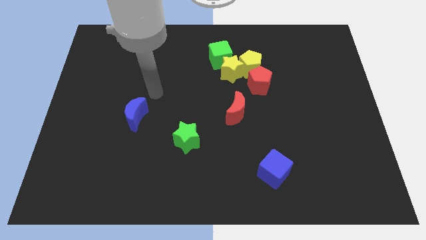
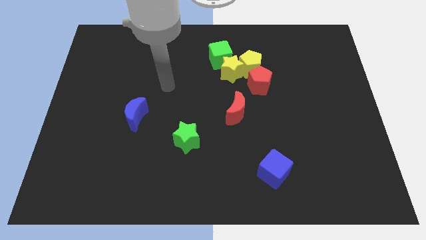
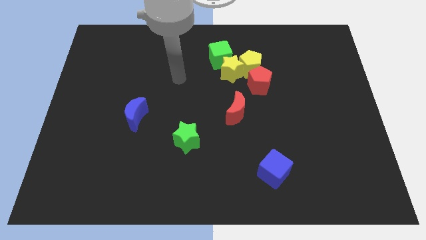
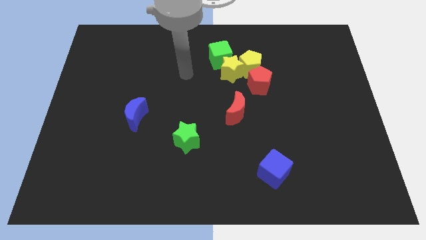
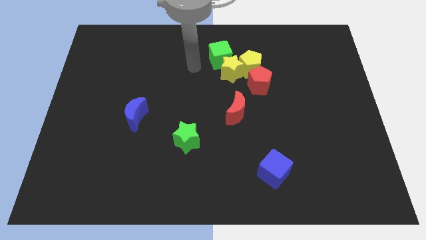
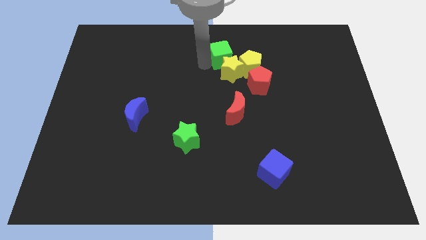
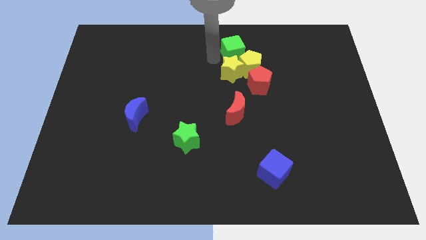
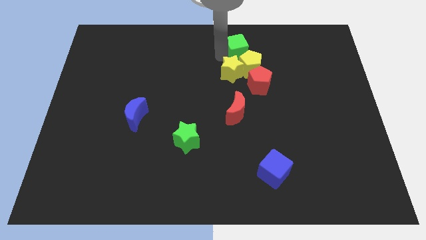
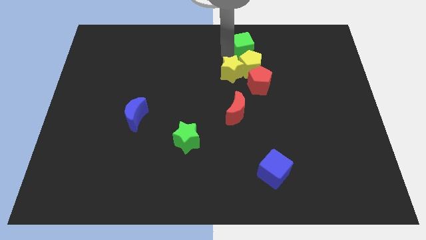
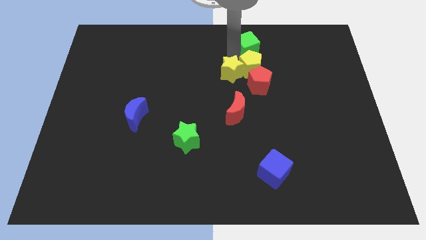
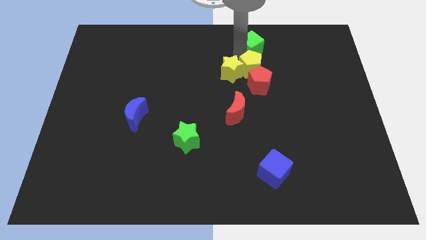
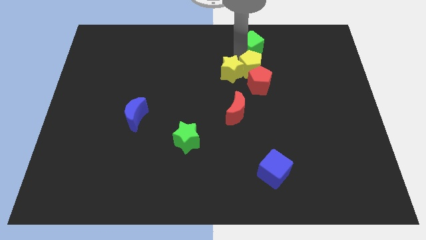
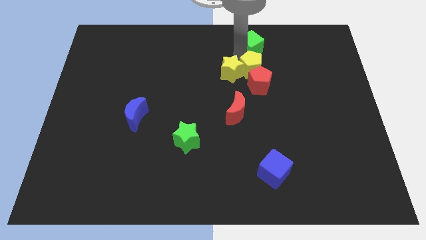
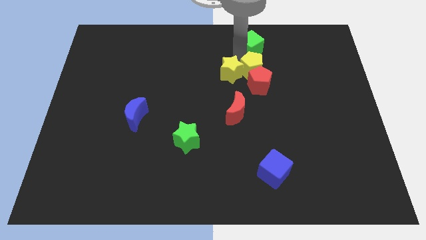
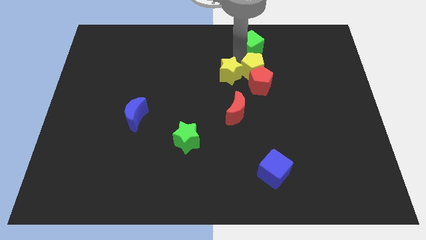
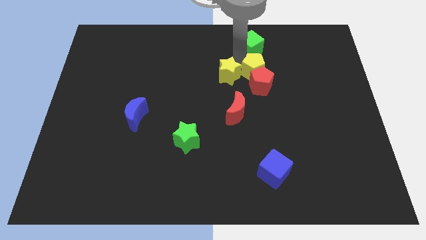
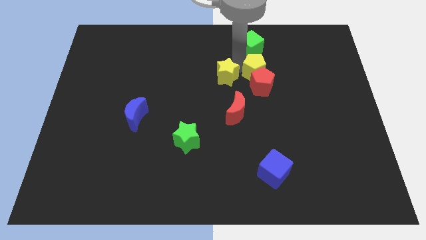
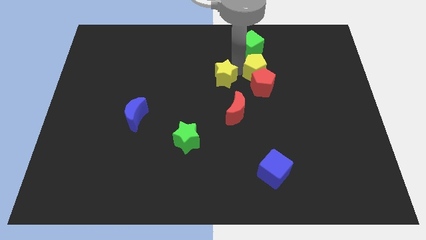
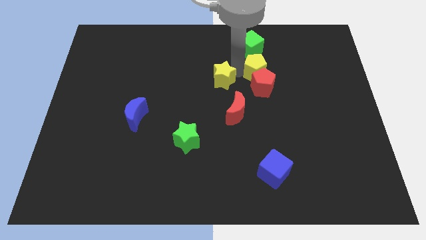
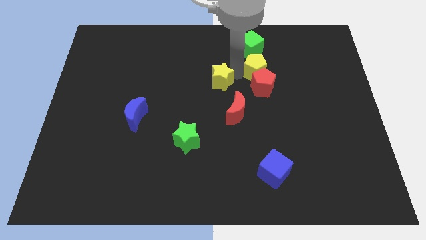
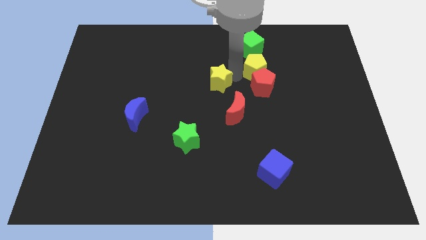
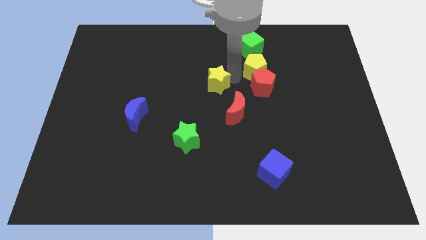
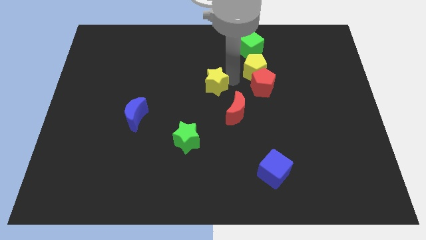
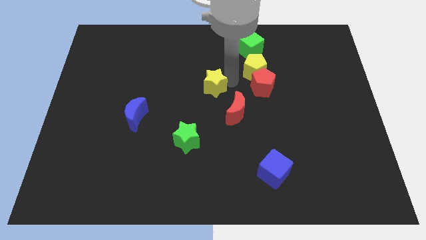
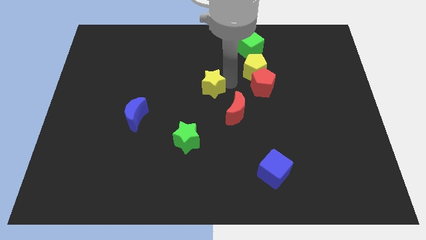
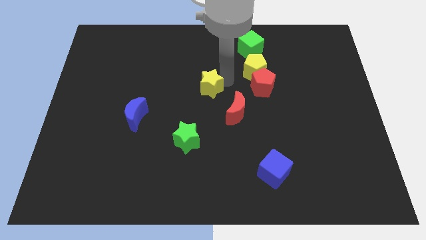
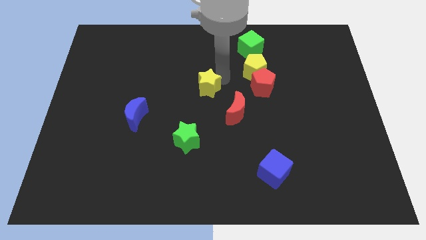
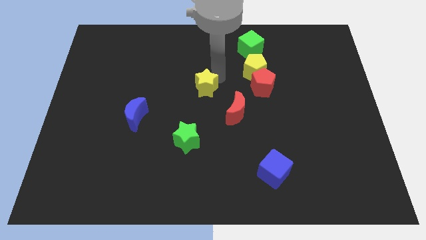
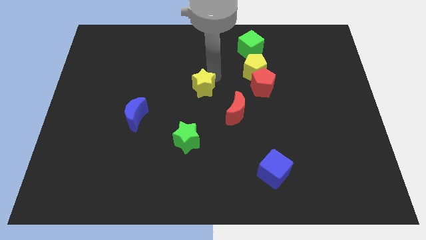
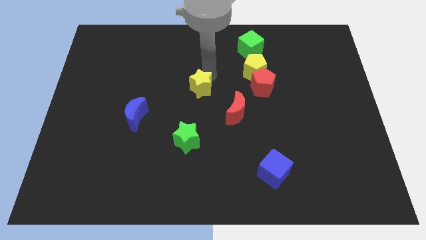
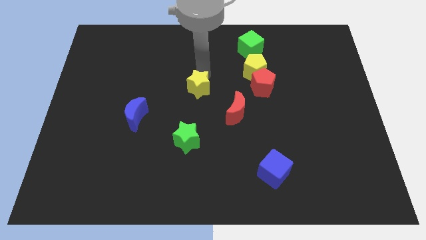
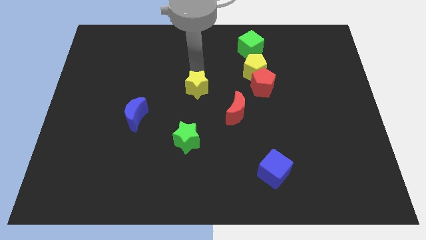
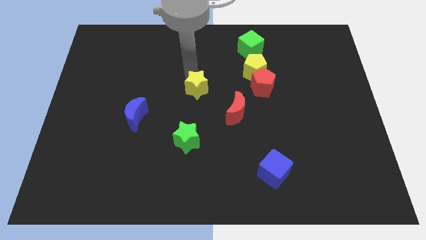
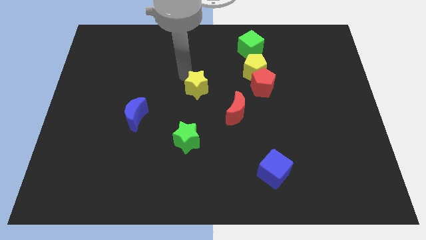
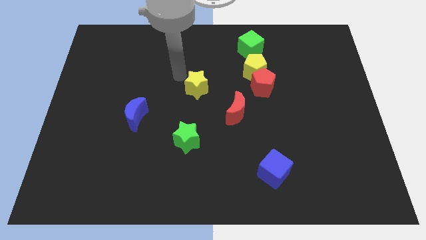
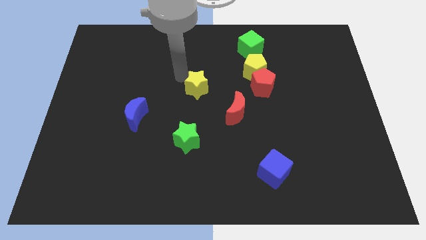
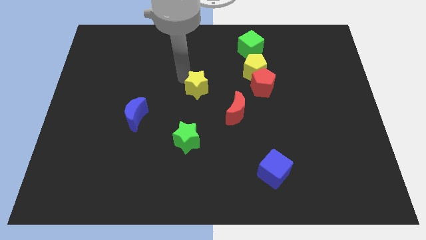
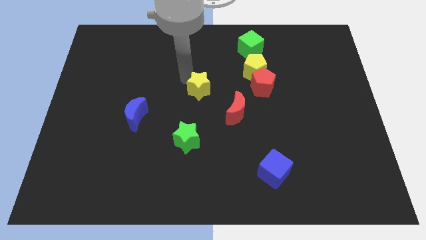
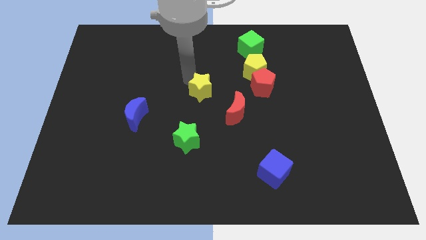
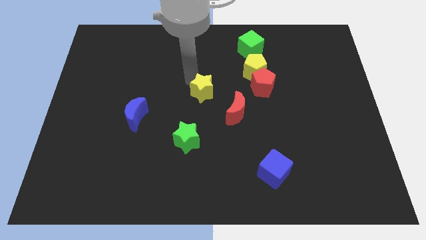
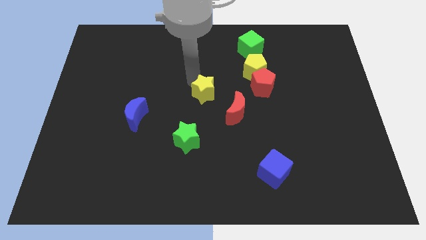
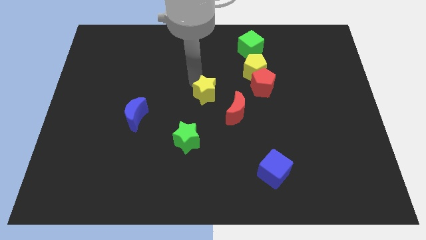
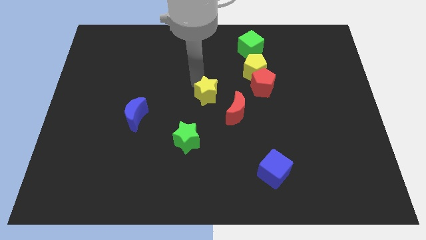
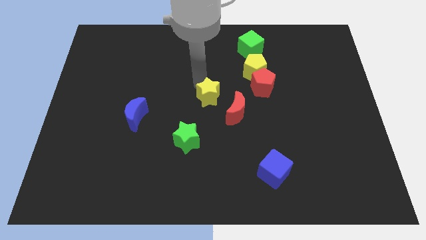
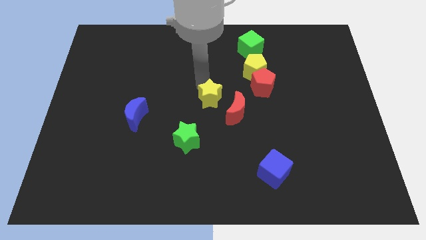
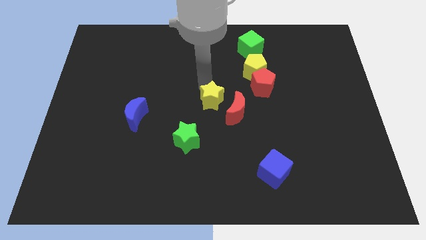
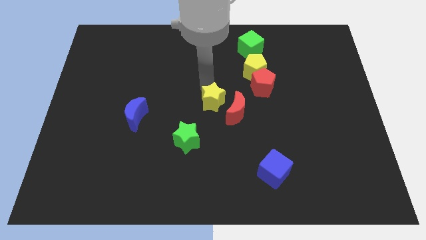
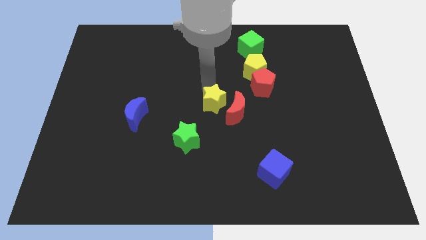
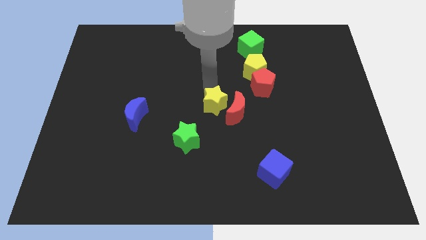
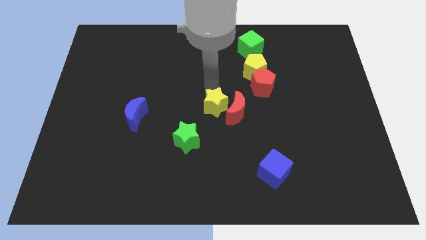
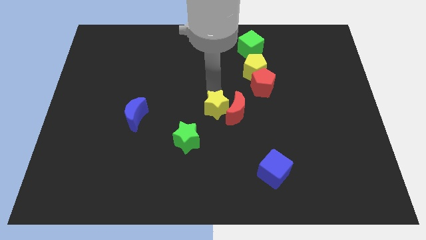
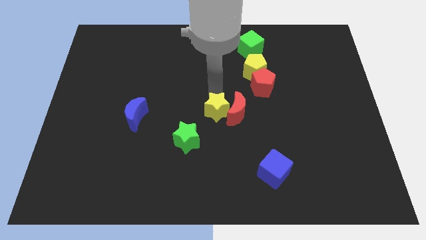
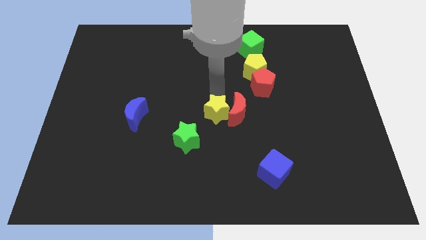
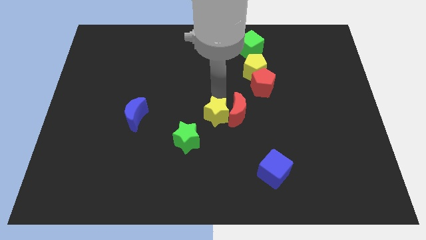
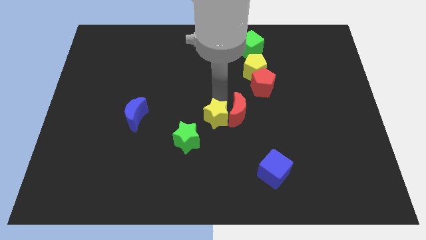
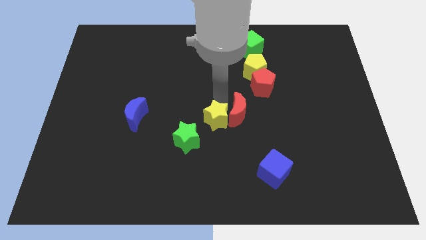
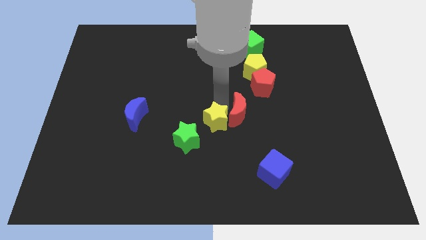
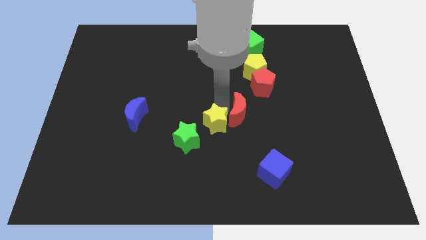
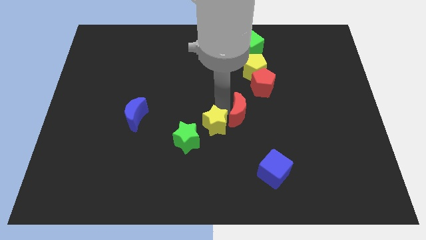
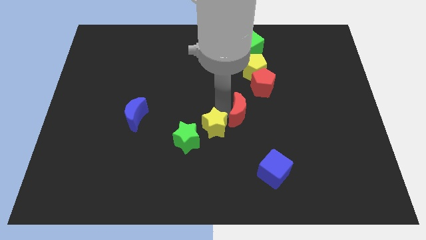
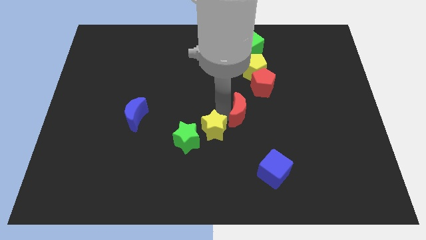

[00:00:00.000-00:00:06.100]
move the yellow star towards the green star

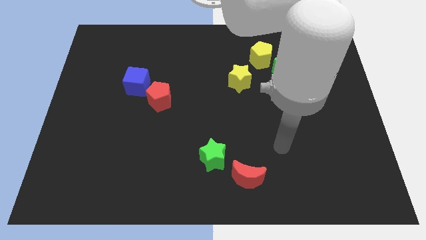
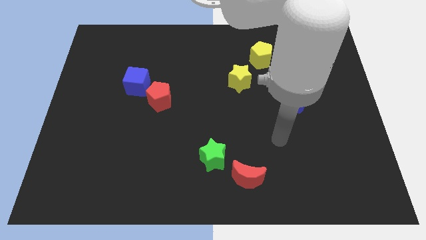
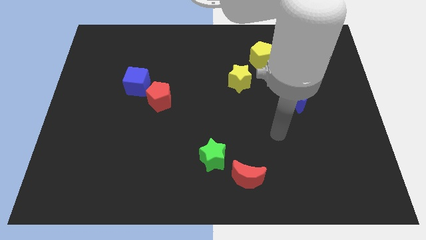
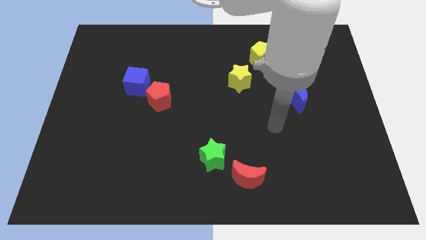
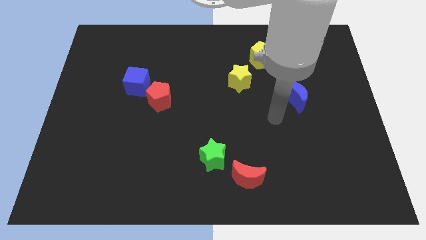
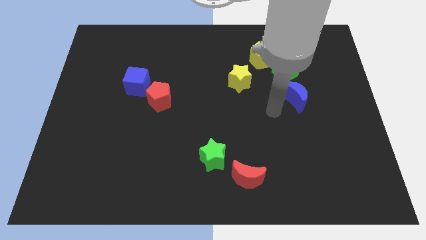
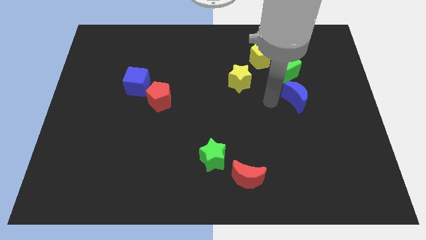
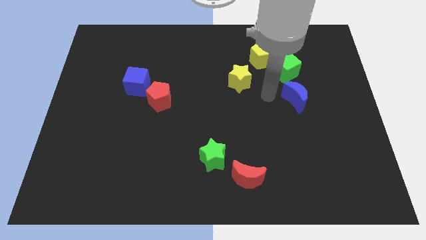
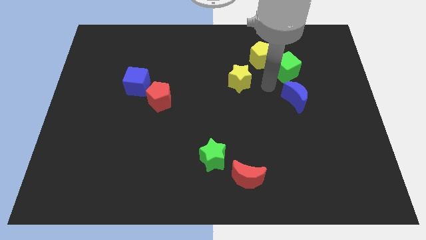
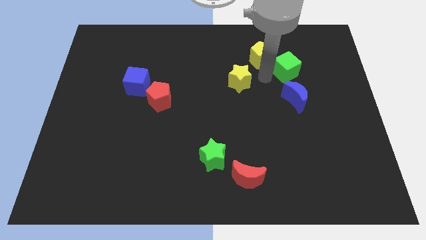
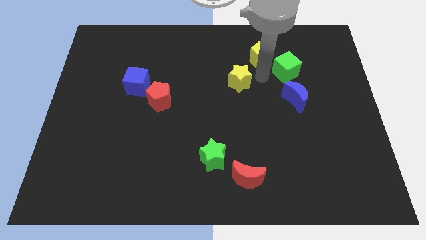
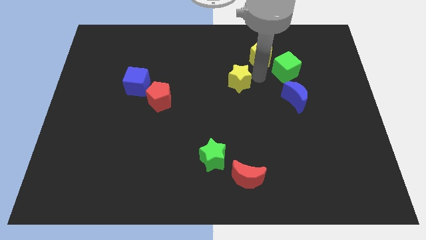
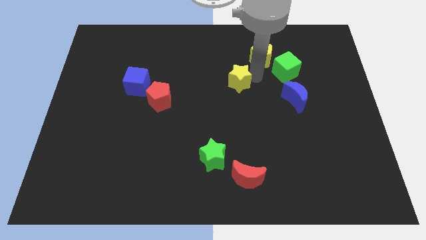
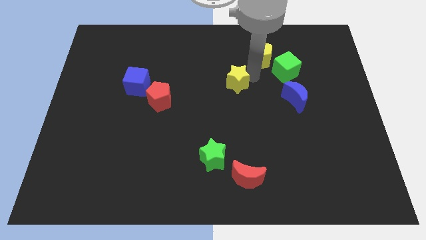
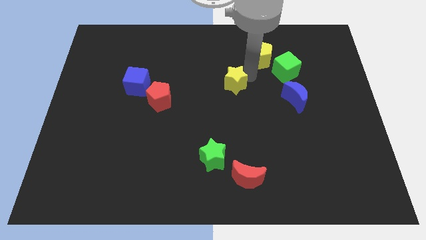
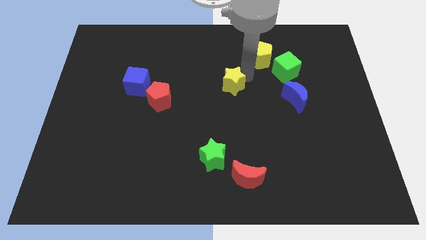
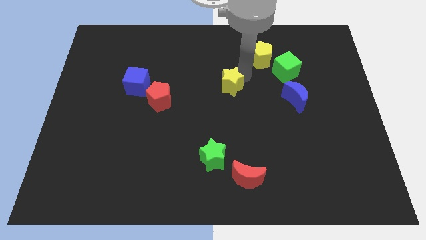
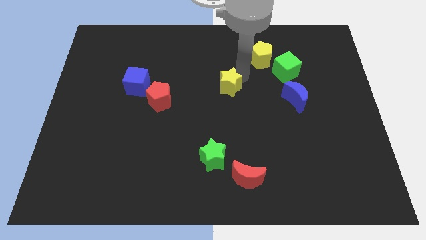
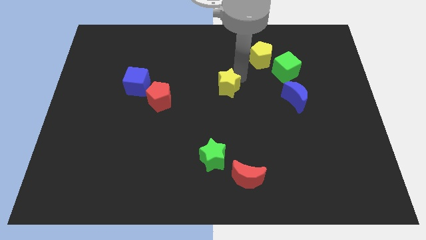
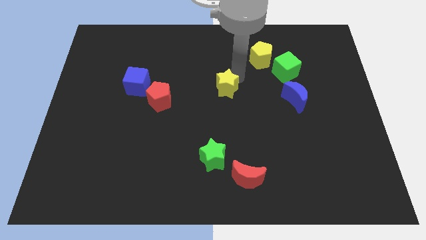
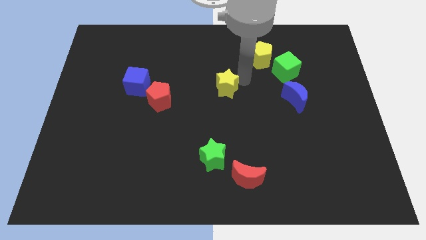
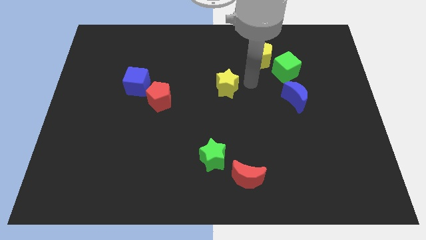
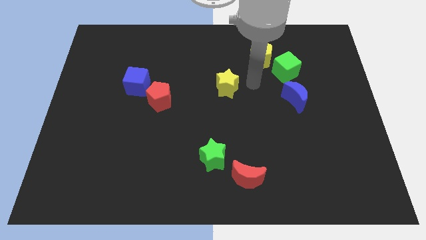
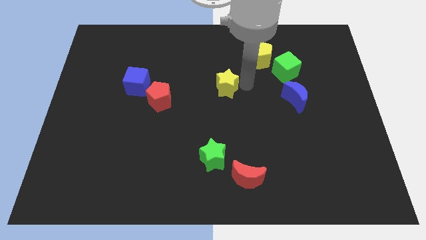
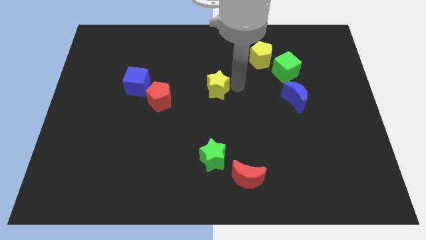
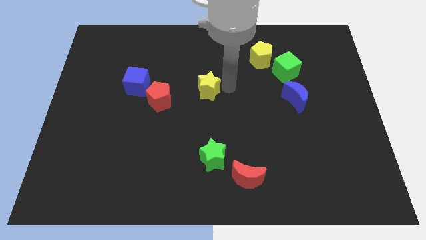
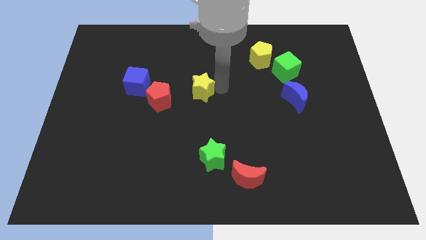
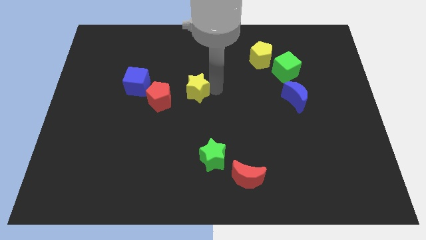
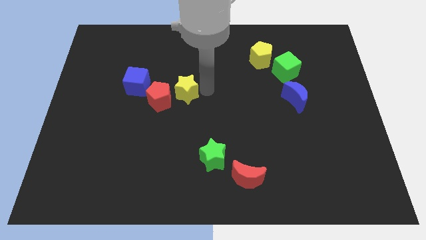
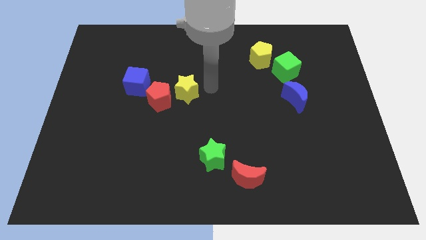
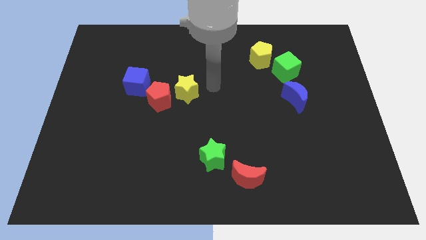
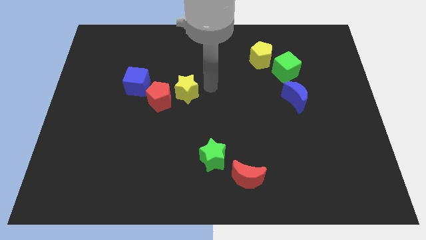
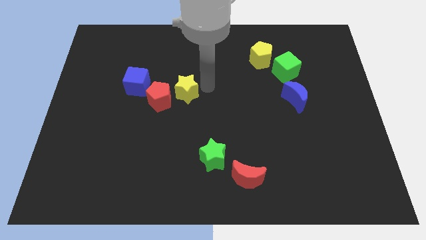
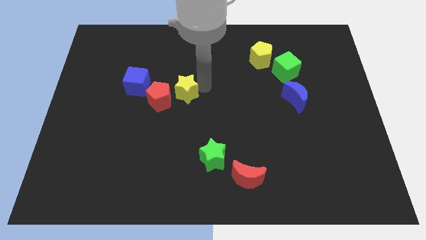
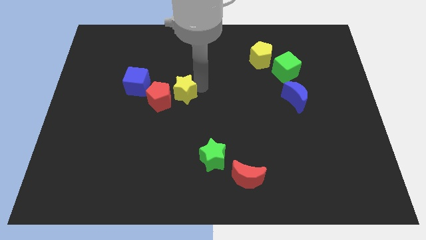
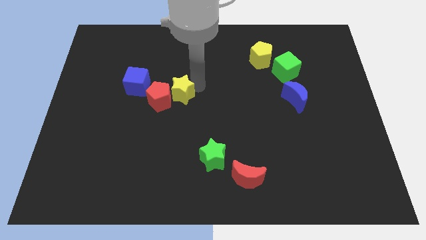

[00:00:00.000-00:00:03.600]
move the yellow star to the red pentagon
